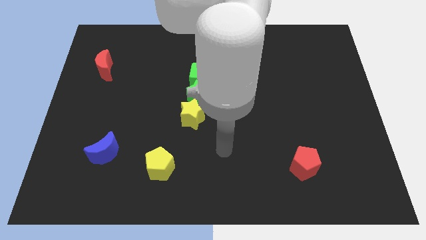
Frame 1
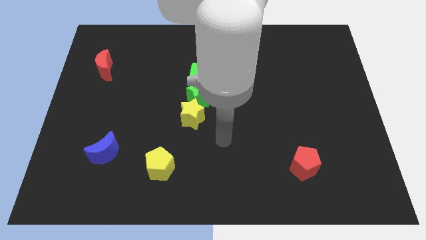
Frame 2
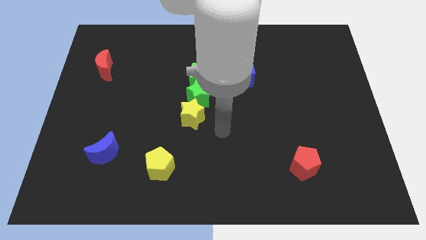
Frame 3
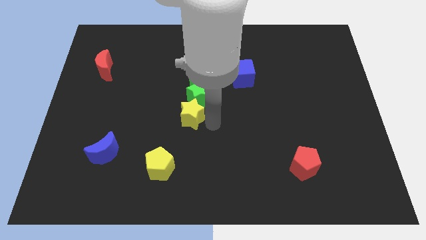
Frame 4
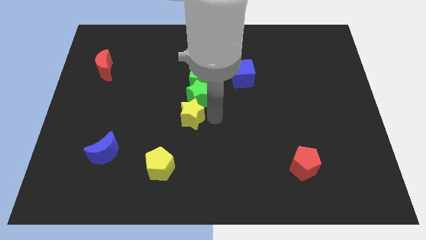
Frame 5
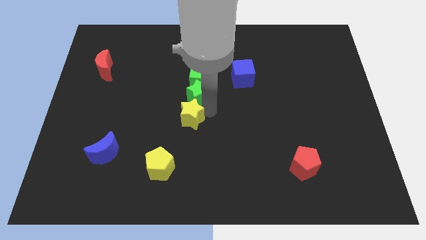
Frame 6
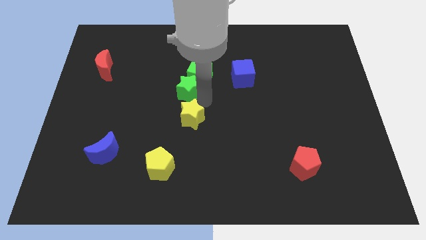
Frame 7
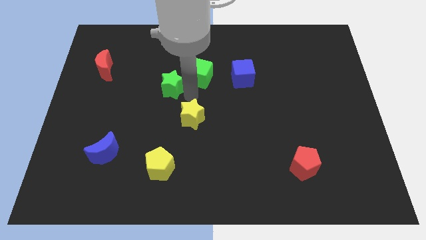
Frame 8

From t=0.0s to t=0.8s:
move the yellow star away from the green star

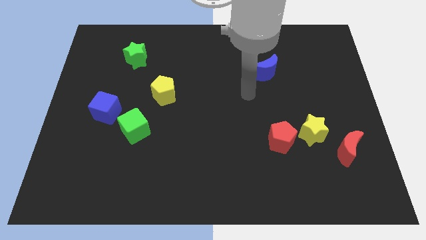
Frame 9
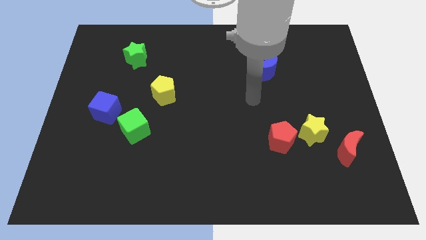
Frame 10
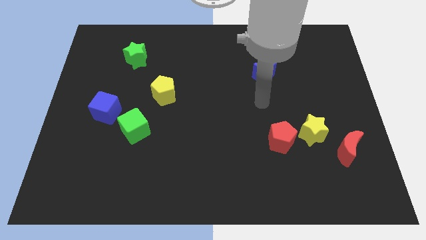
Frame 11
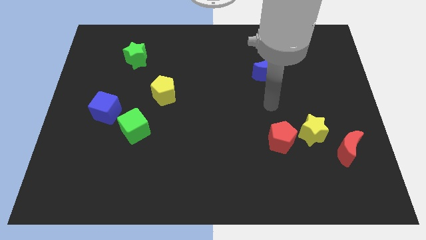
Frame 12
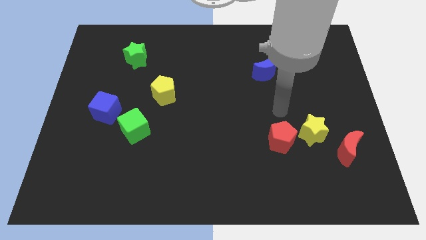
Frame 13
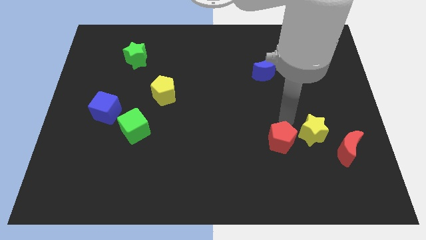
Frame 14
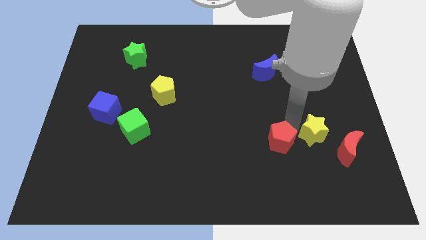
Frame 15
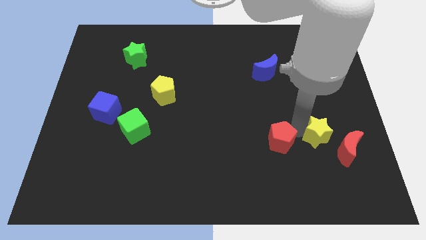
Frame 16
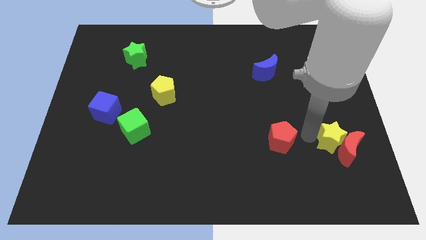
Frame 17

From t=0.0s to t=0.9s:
pull the red pentagon apart from the yellow star

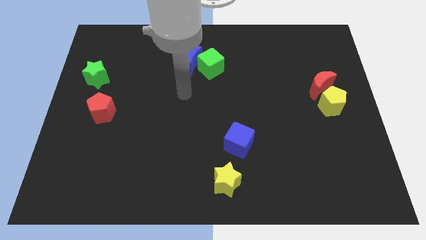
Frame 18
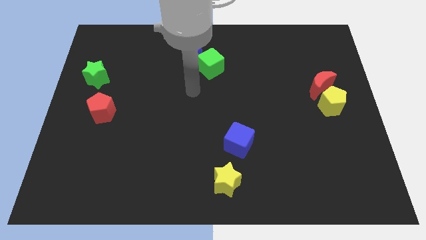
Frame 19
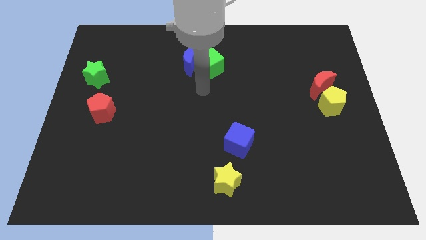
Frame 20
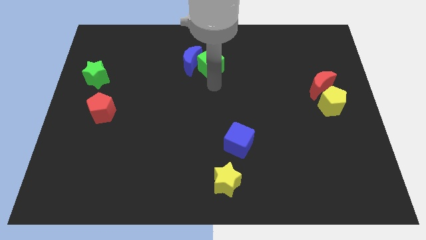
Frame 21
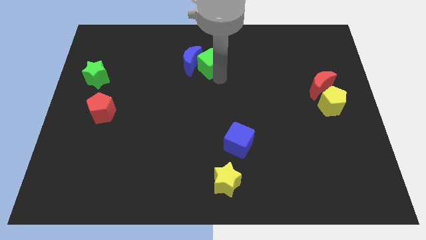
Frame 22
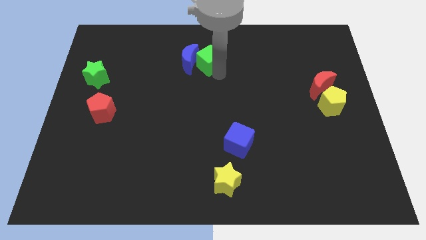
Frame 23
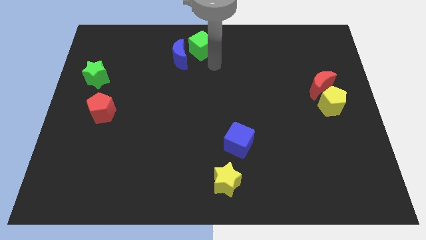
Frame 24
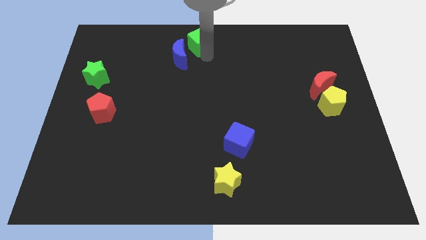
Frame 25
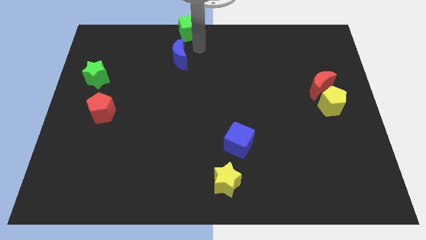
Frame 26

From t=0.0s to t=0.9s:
move the blue moon away from the green cube

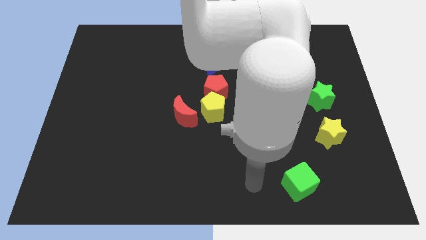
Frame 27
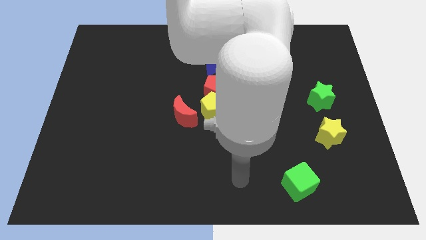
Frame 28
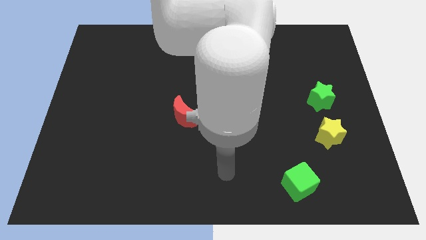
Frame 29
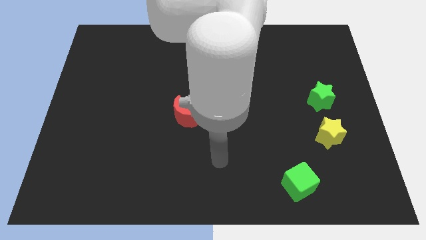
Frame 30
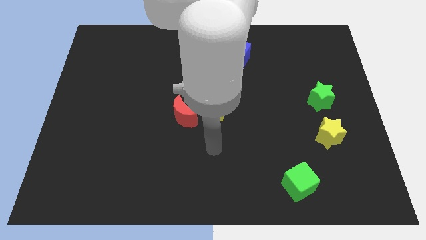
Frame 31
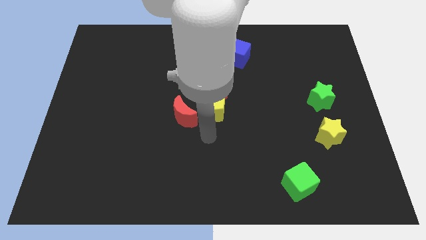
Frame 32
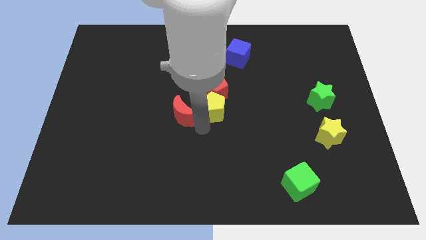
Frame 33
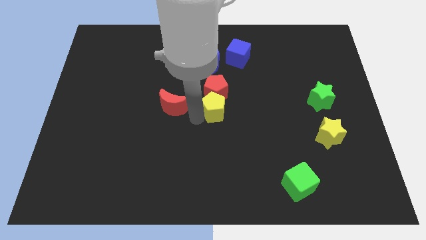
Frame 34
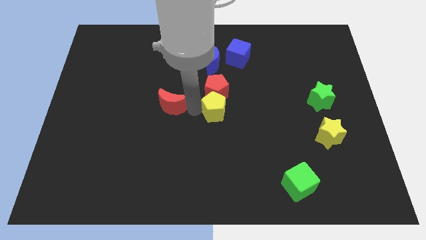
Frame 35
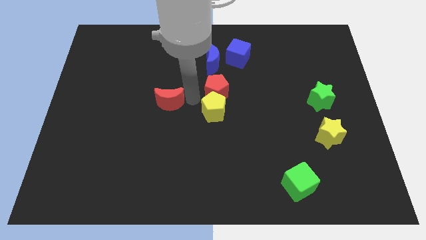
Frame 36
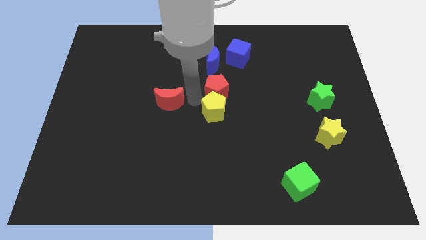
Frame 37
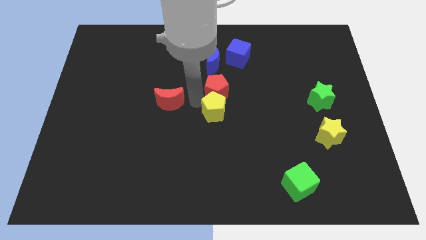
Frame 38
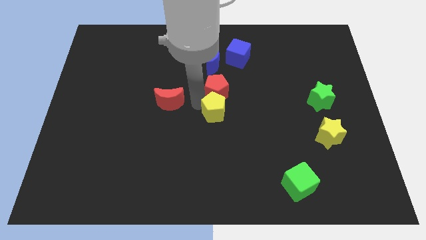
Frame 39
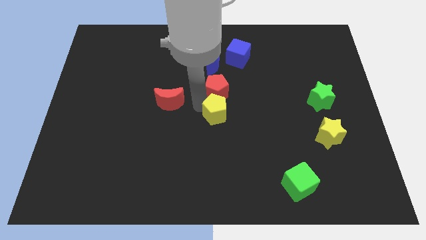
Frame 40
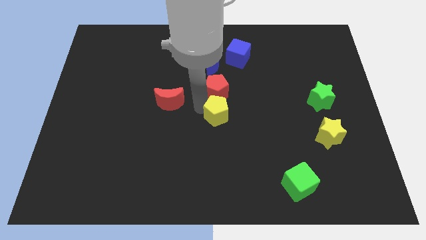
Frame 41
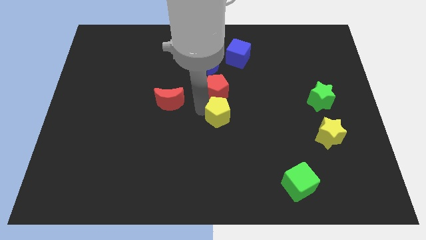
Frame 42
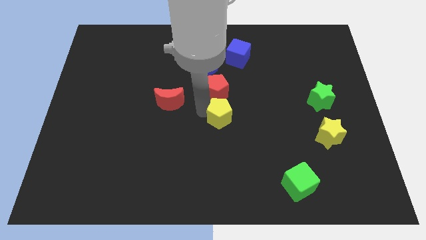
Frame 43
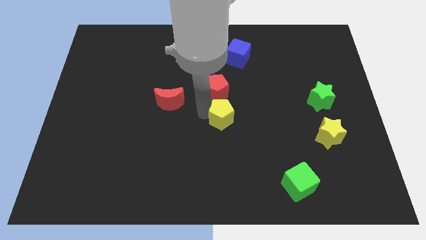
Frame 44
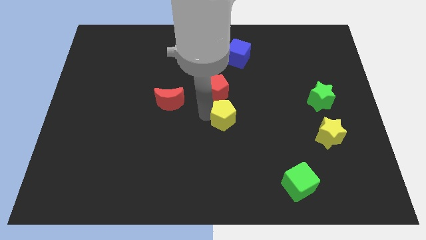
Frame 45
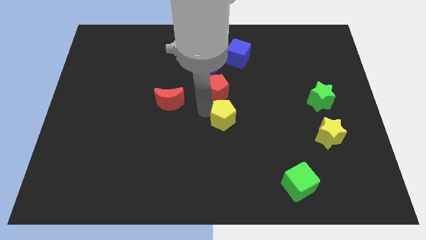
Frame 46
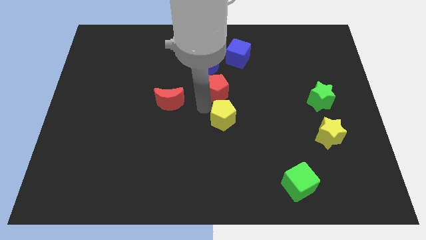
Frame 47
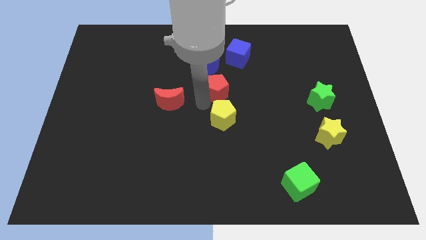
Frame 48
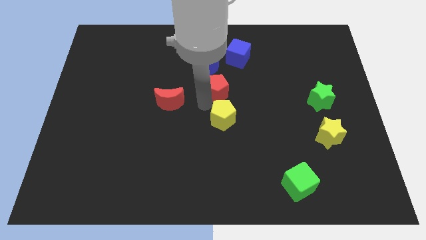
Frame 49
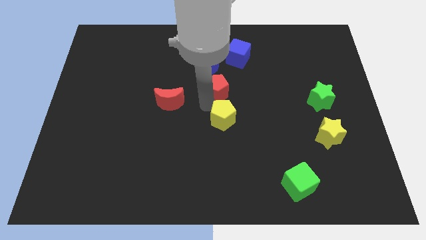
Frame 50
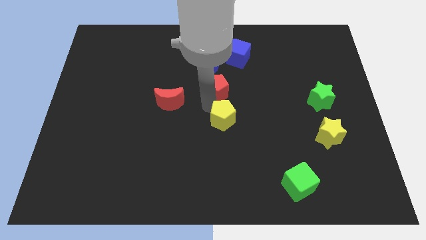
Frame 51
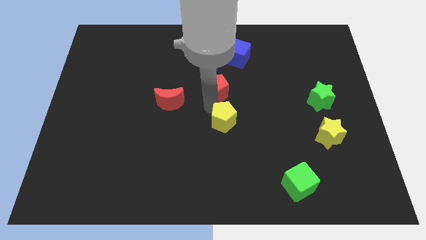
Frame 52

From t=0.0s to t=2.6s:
pull the yellow pentagon apart from the red pentagon and red moon

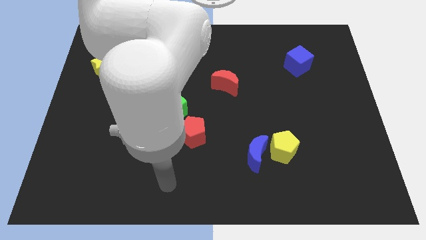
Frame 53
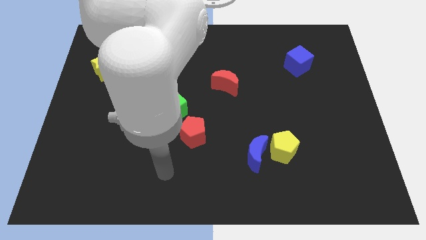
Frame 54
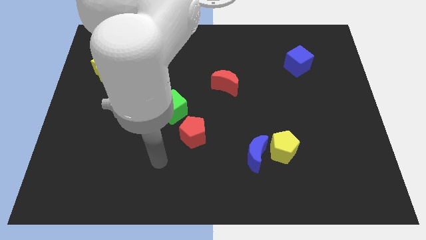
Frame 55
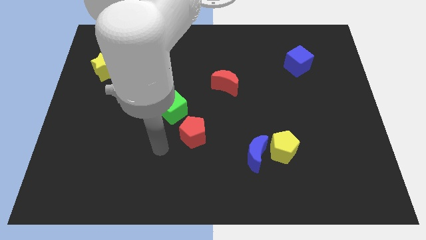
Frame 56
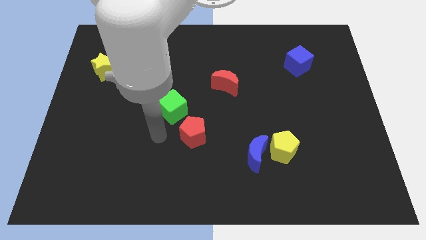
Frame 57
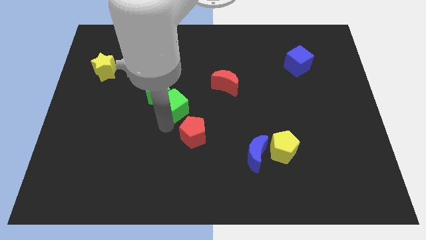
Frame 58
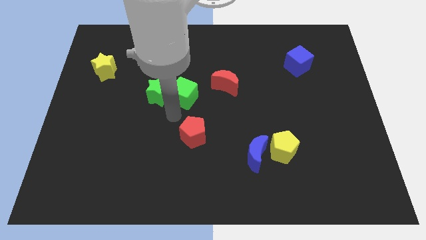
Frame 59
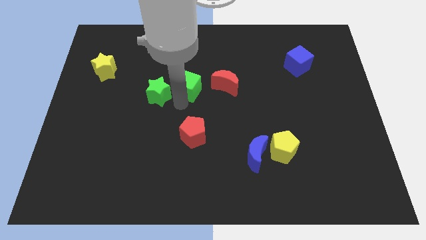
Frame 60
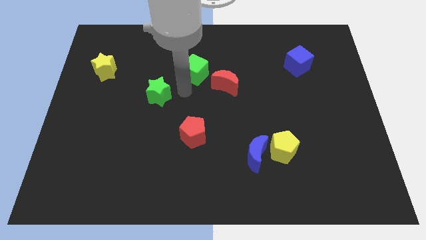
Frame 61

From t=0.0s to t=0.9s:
move the green star away from the green cube

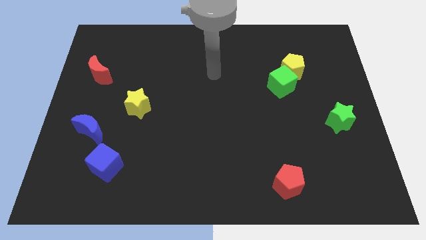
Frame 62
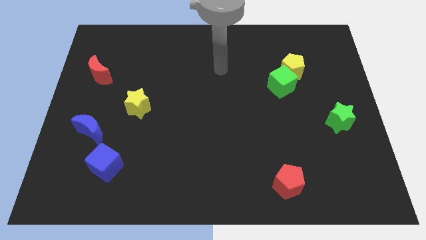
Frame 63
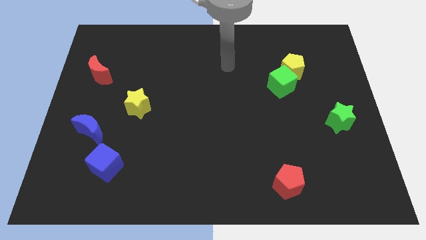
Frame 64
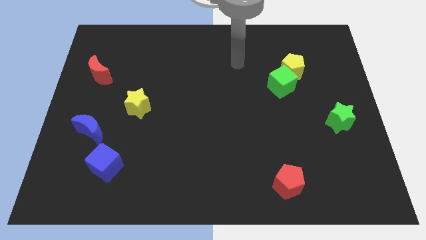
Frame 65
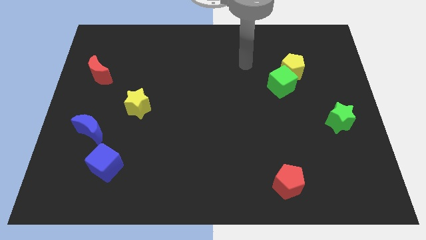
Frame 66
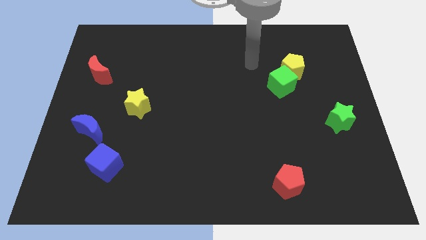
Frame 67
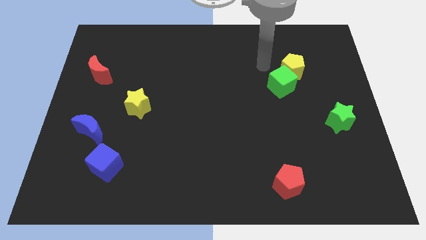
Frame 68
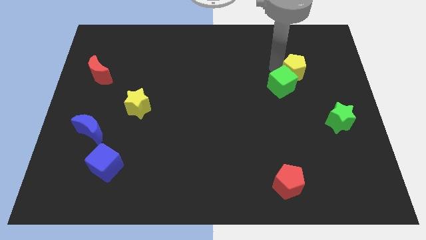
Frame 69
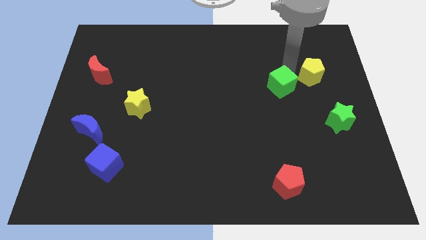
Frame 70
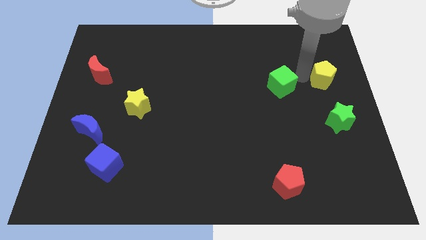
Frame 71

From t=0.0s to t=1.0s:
pull the green cube apart from the yellow pentagon

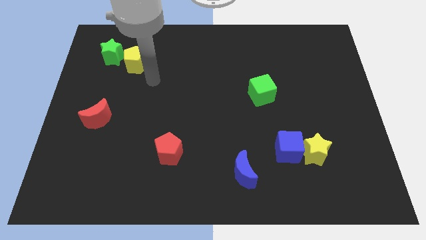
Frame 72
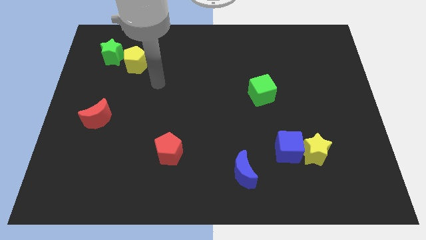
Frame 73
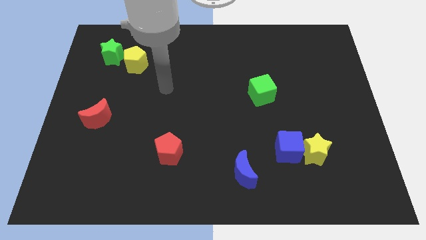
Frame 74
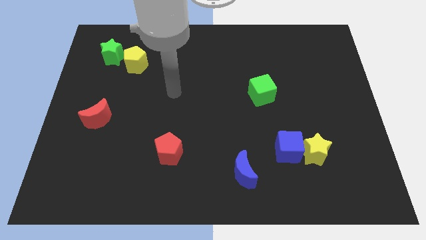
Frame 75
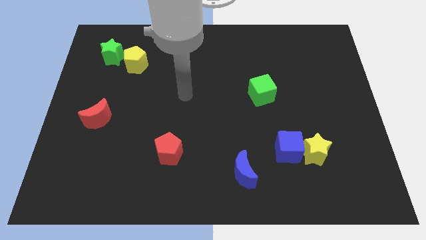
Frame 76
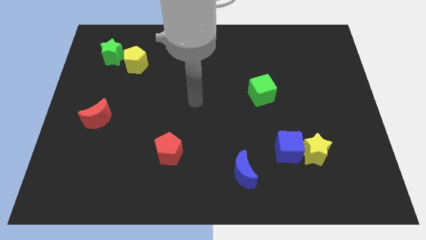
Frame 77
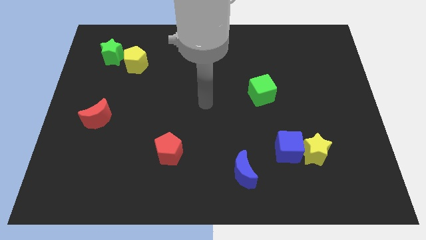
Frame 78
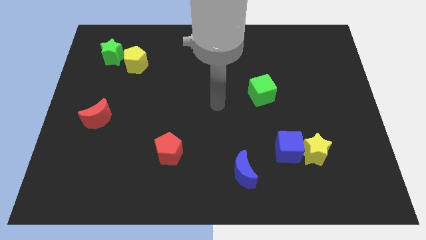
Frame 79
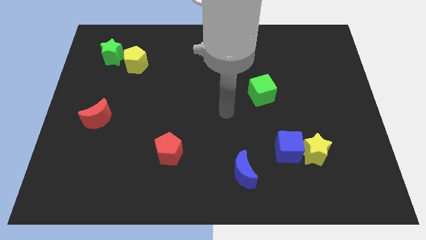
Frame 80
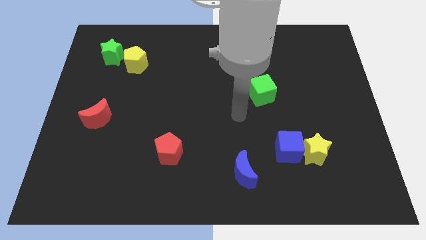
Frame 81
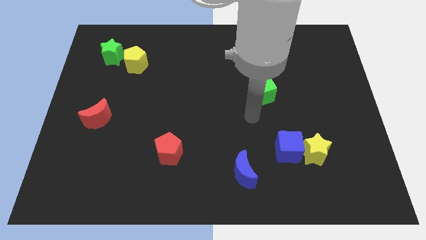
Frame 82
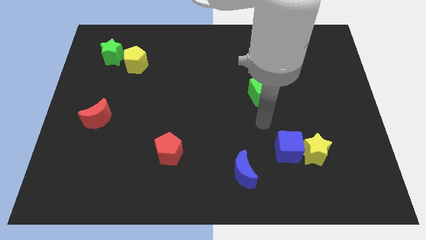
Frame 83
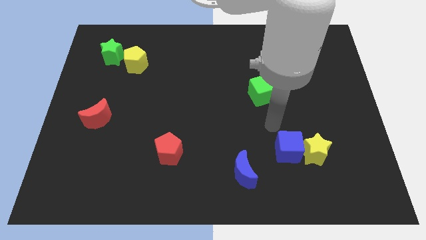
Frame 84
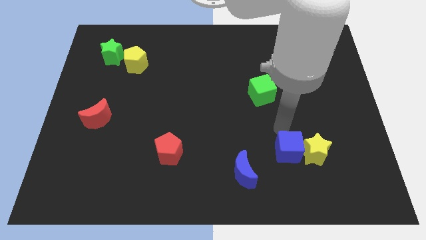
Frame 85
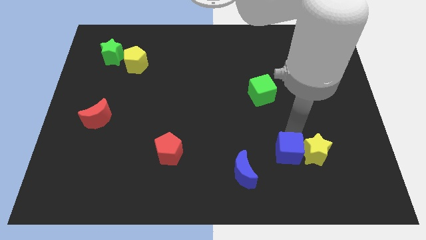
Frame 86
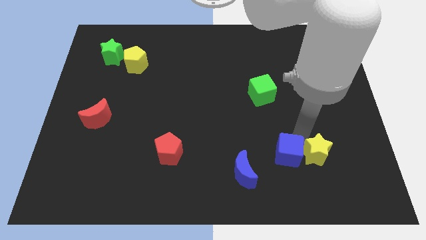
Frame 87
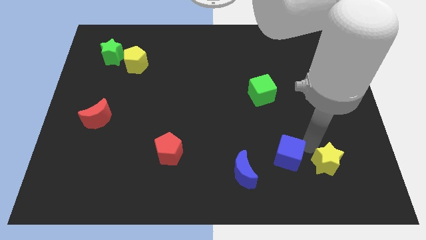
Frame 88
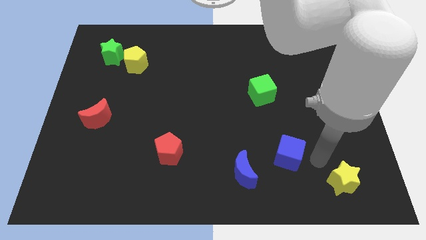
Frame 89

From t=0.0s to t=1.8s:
move the blue cube away from the yellow star

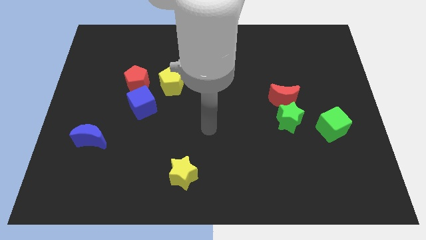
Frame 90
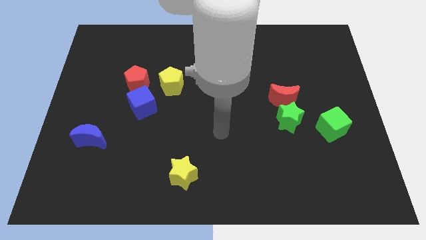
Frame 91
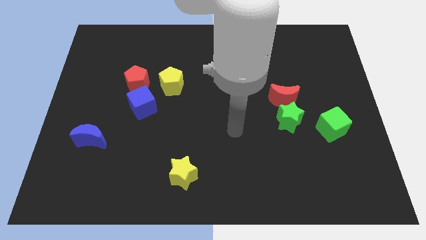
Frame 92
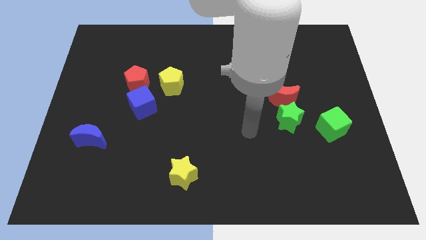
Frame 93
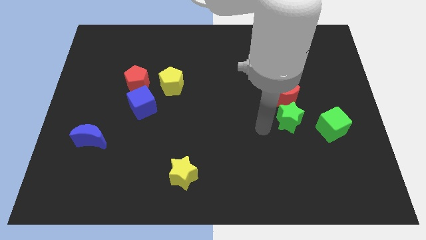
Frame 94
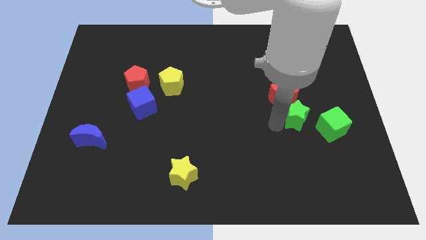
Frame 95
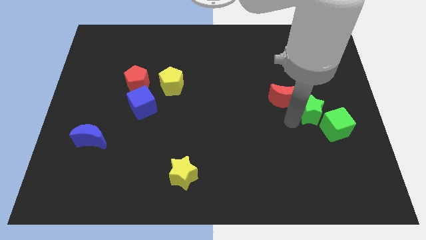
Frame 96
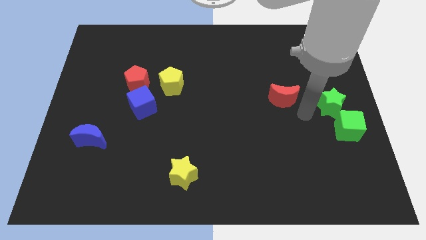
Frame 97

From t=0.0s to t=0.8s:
separate the red moon from the green star
